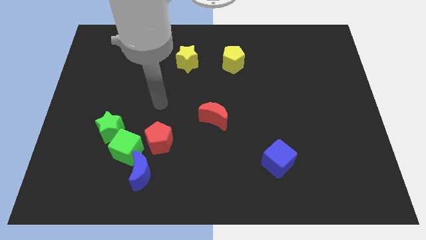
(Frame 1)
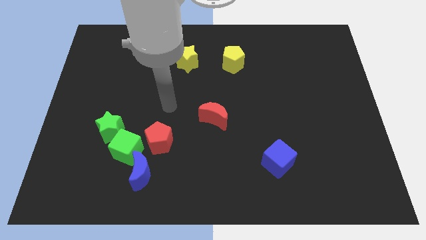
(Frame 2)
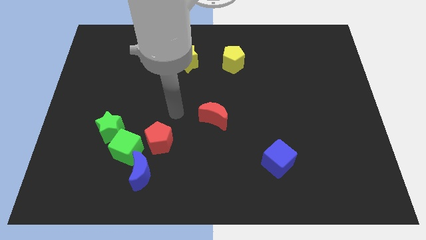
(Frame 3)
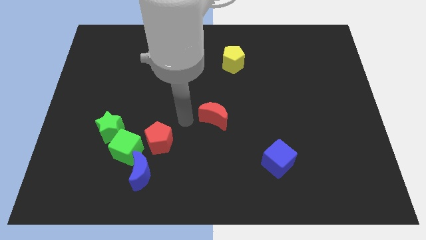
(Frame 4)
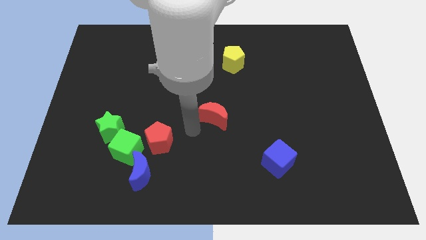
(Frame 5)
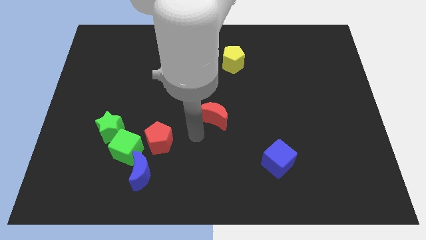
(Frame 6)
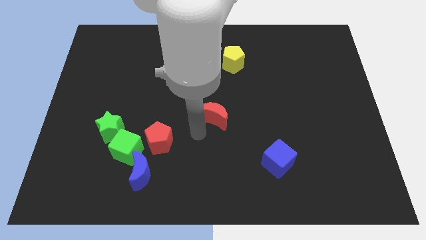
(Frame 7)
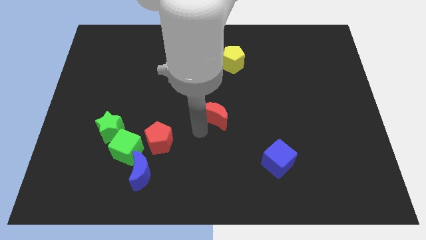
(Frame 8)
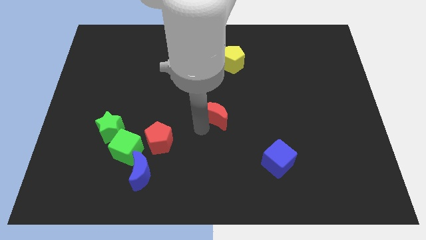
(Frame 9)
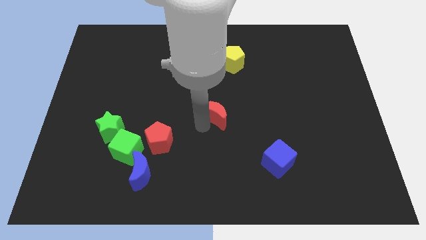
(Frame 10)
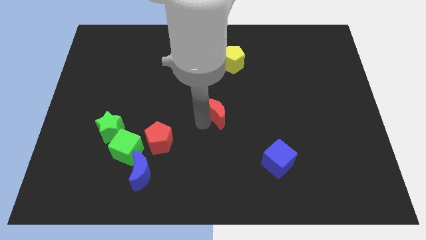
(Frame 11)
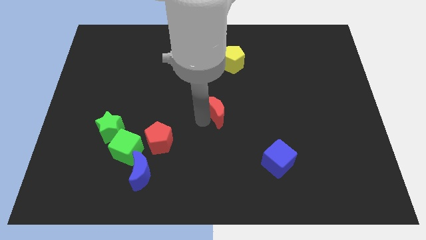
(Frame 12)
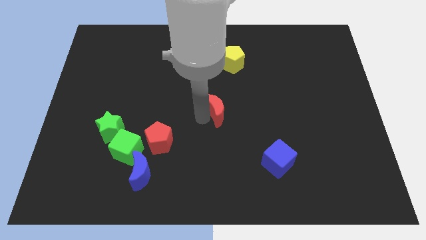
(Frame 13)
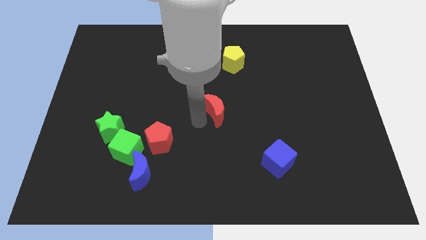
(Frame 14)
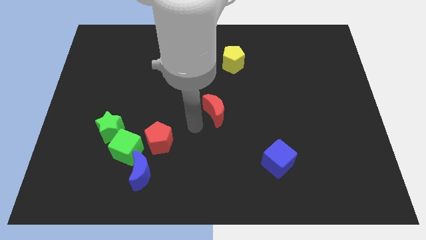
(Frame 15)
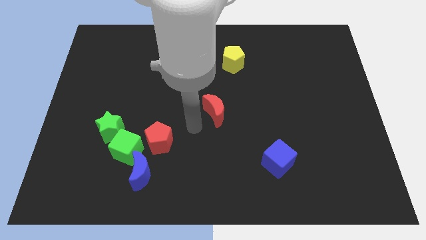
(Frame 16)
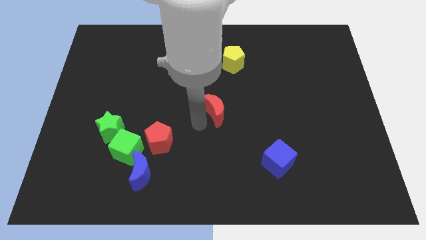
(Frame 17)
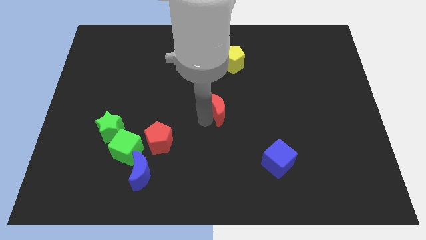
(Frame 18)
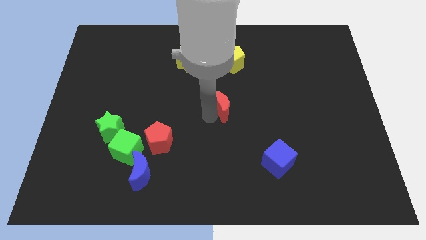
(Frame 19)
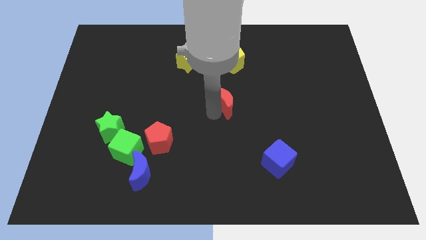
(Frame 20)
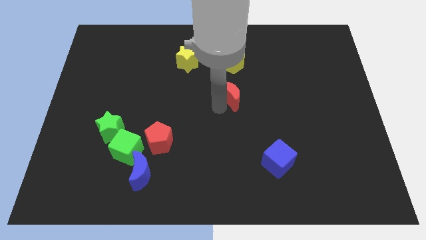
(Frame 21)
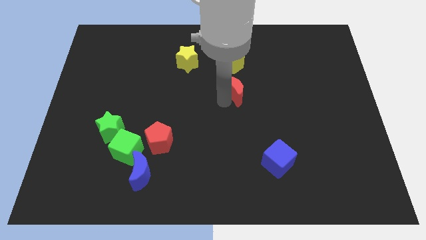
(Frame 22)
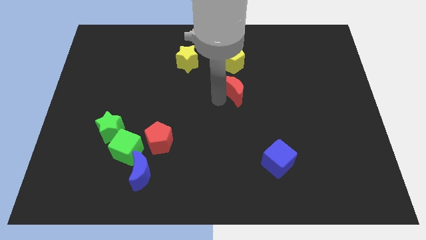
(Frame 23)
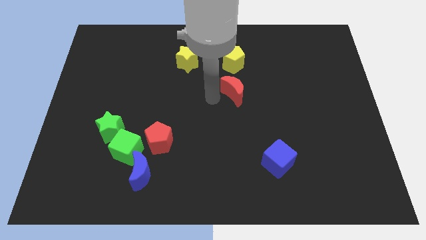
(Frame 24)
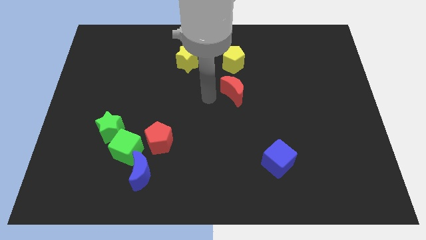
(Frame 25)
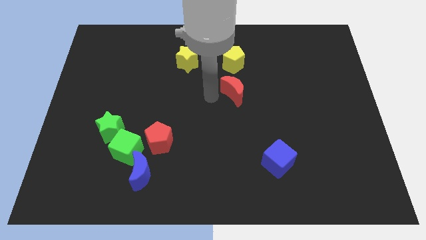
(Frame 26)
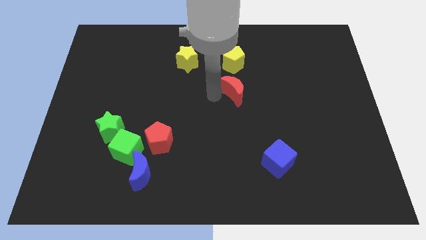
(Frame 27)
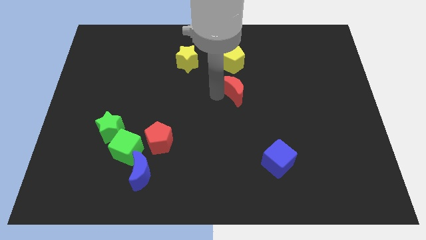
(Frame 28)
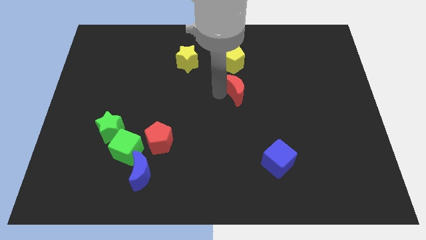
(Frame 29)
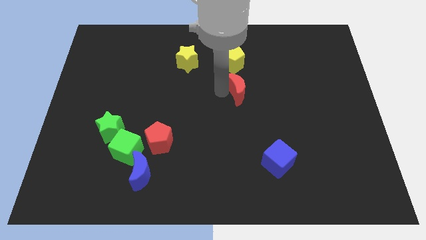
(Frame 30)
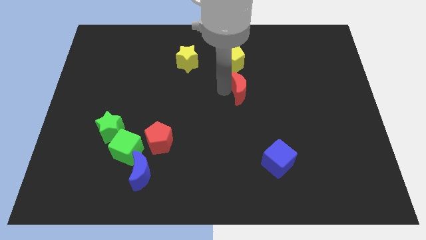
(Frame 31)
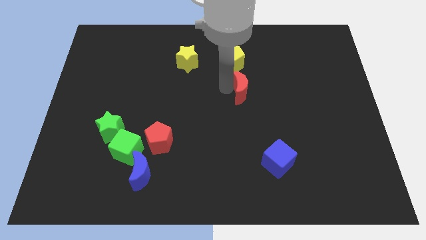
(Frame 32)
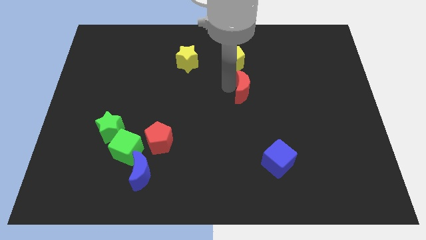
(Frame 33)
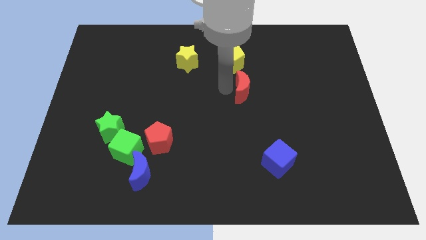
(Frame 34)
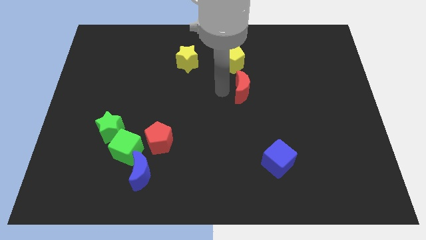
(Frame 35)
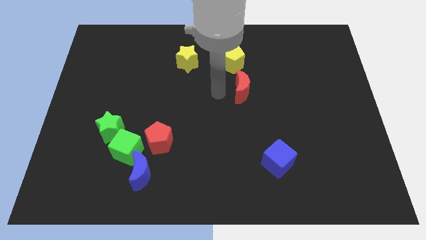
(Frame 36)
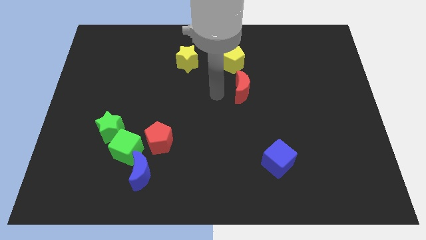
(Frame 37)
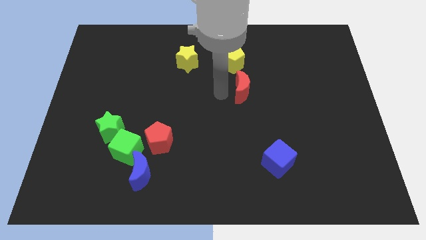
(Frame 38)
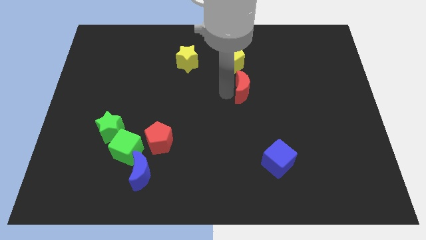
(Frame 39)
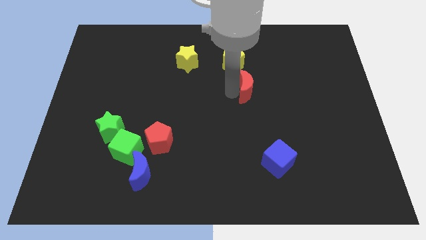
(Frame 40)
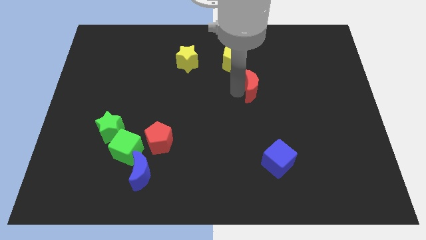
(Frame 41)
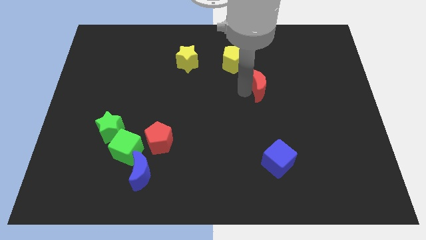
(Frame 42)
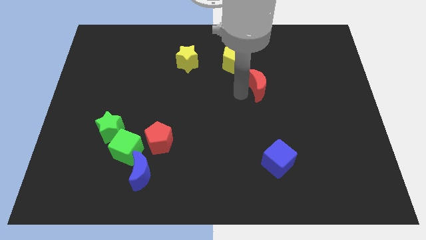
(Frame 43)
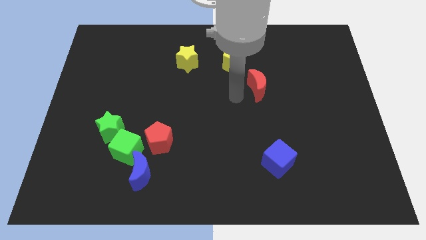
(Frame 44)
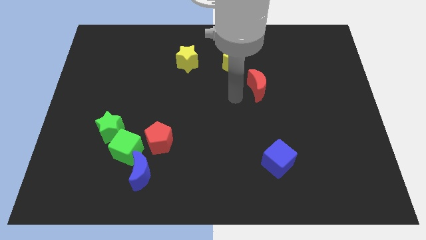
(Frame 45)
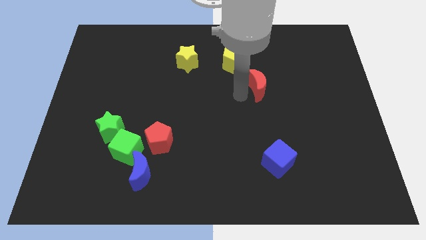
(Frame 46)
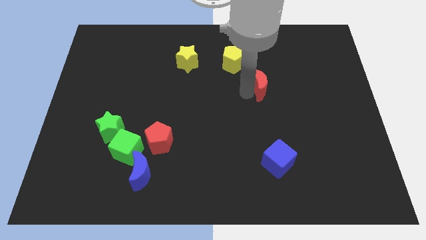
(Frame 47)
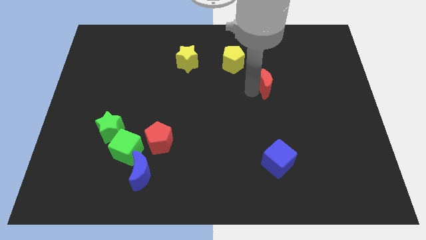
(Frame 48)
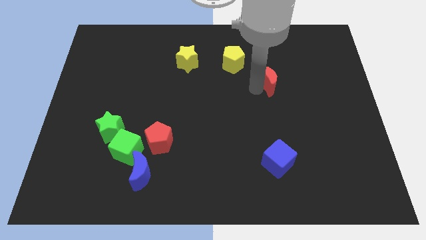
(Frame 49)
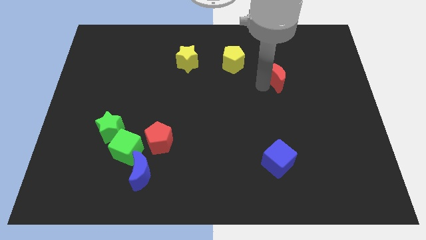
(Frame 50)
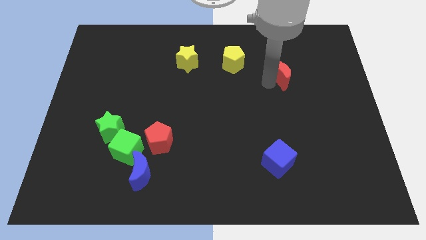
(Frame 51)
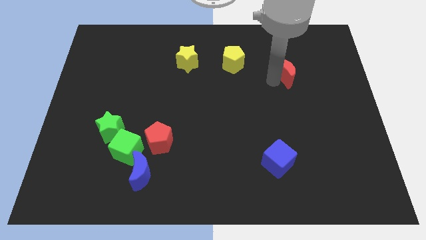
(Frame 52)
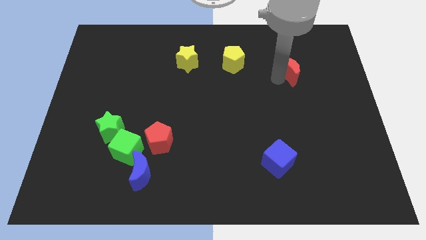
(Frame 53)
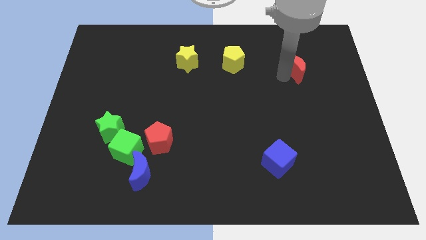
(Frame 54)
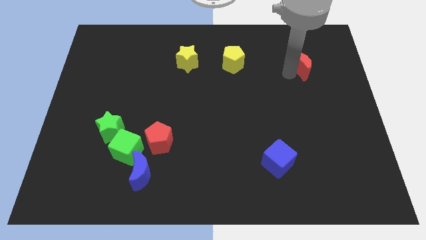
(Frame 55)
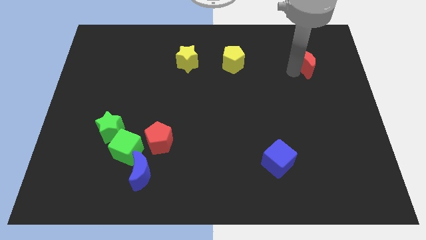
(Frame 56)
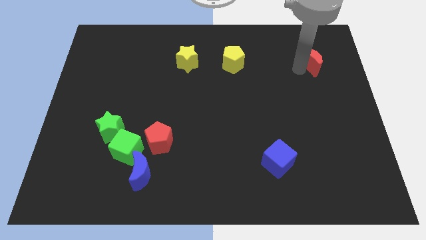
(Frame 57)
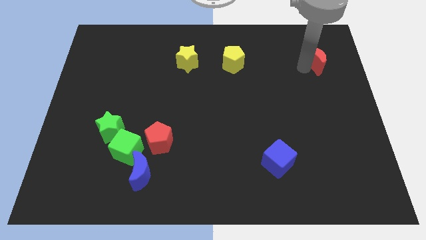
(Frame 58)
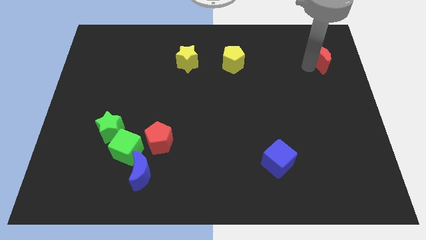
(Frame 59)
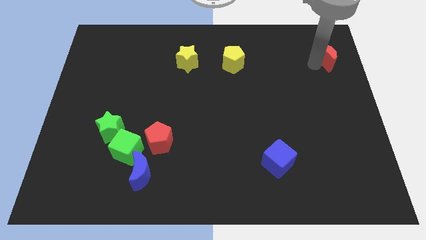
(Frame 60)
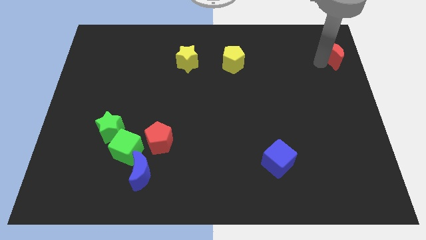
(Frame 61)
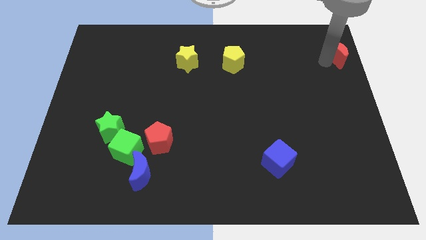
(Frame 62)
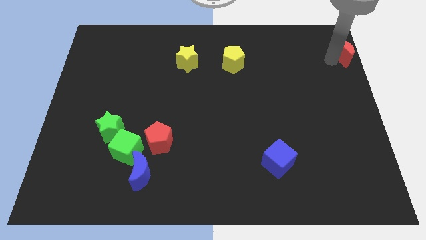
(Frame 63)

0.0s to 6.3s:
slide the red moon to the top right corner

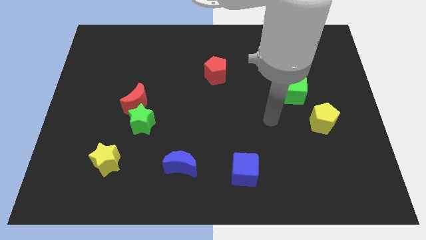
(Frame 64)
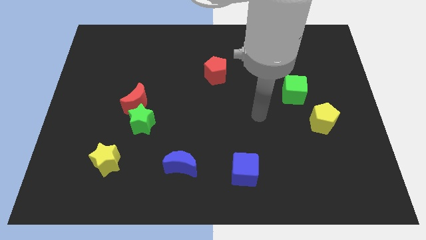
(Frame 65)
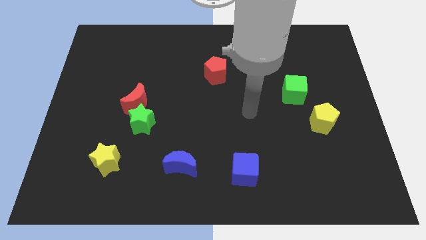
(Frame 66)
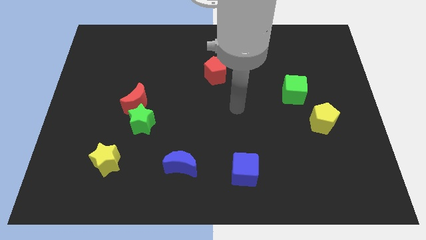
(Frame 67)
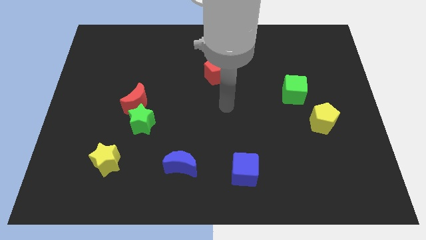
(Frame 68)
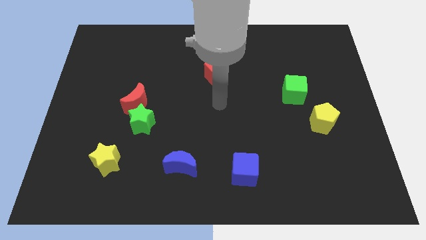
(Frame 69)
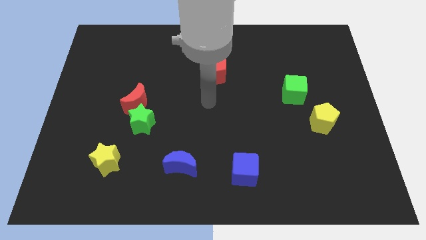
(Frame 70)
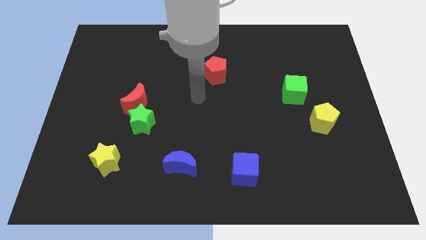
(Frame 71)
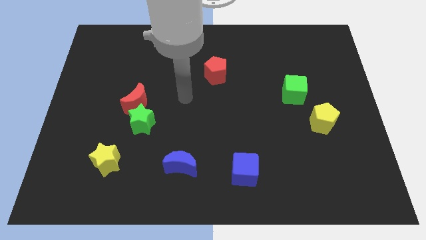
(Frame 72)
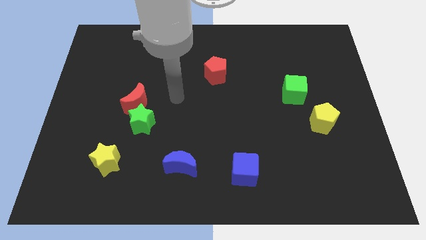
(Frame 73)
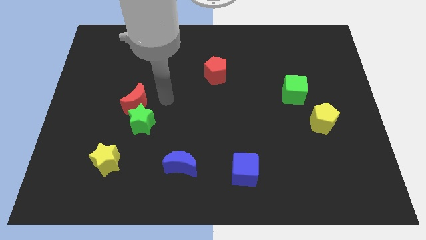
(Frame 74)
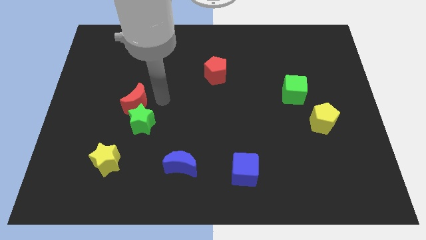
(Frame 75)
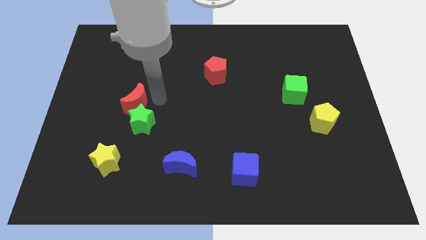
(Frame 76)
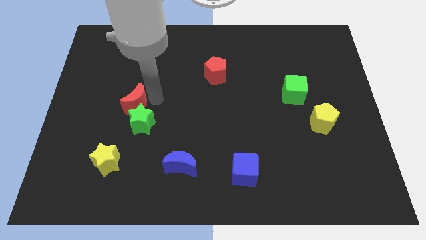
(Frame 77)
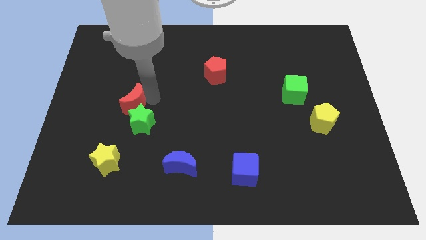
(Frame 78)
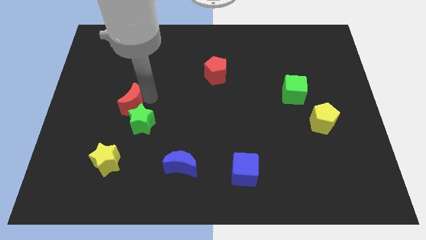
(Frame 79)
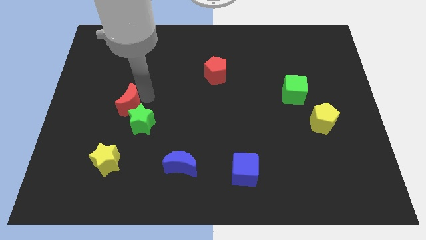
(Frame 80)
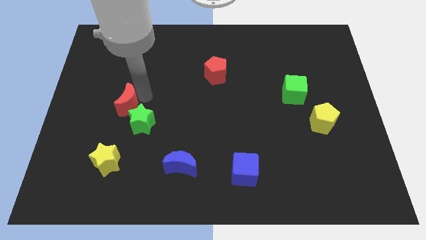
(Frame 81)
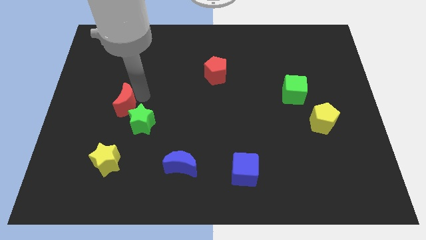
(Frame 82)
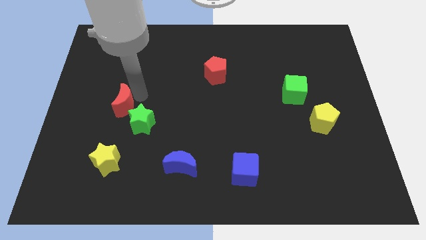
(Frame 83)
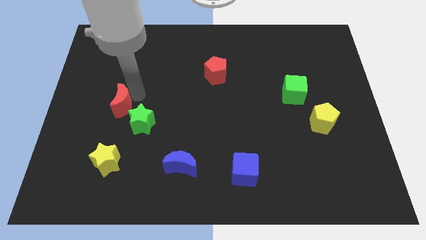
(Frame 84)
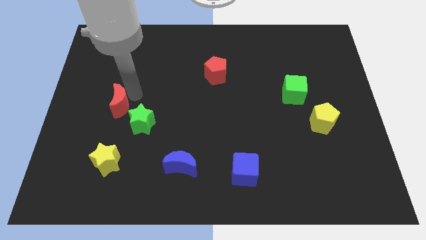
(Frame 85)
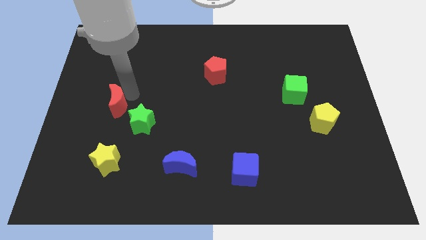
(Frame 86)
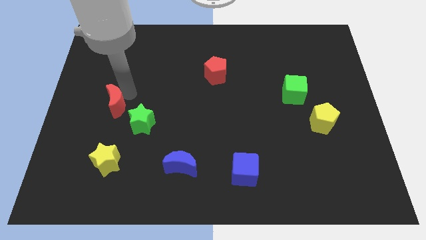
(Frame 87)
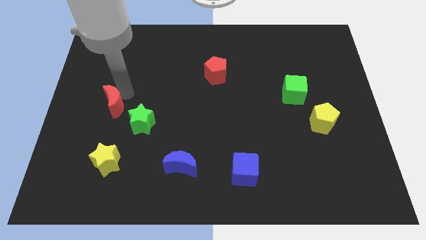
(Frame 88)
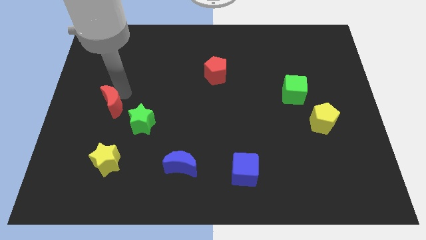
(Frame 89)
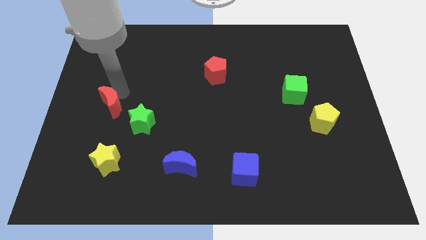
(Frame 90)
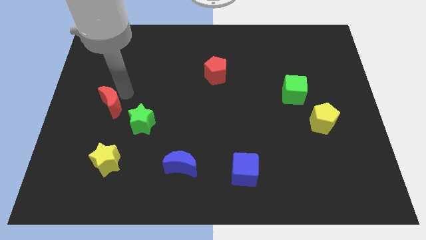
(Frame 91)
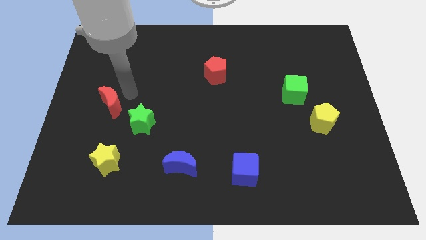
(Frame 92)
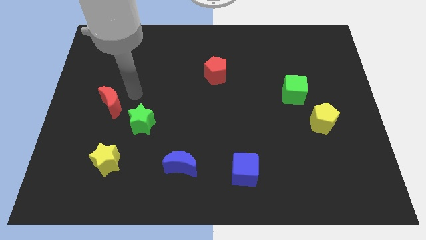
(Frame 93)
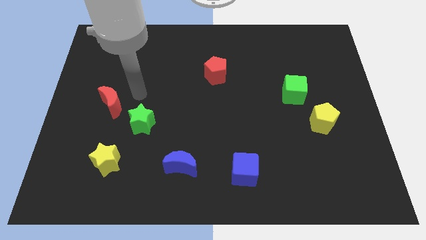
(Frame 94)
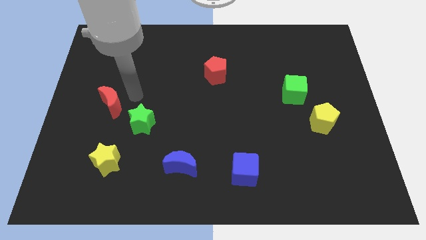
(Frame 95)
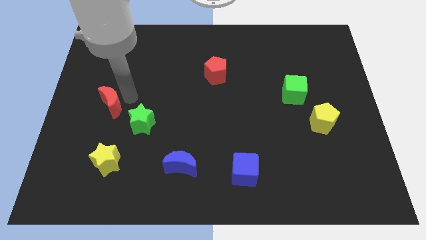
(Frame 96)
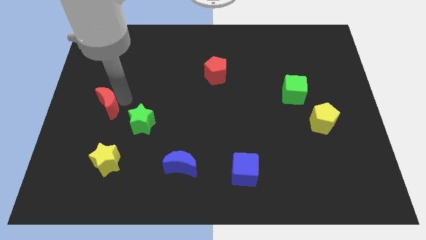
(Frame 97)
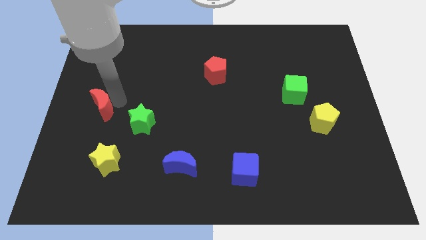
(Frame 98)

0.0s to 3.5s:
slide the red moon to the left side of the board
